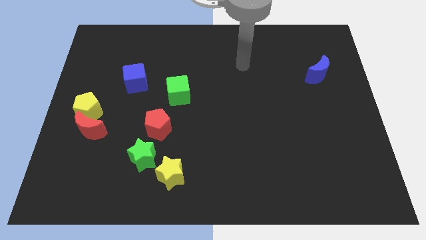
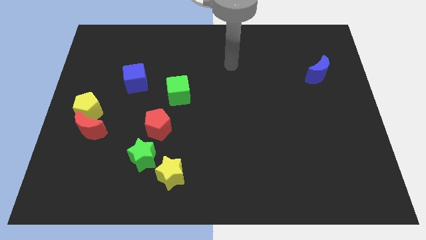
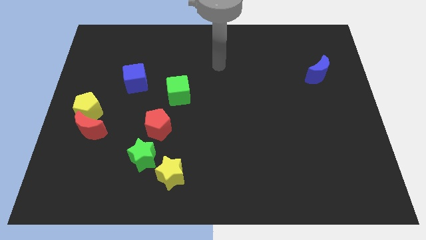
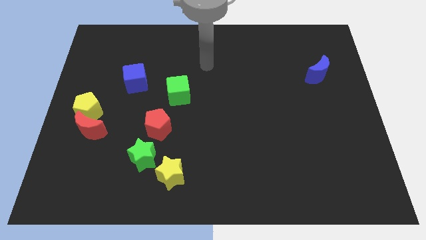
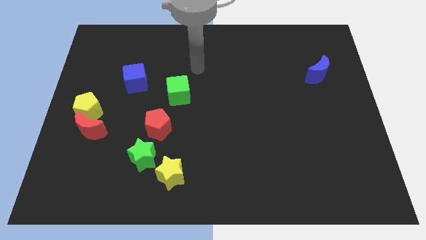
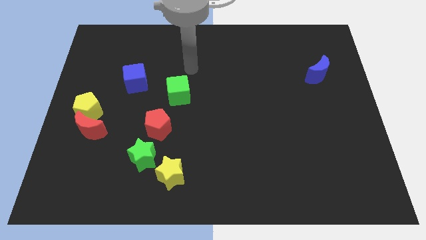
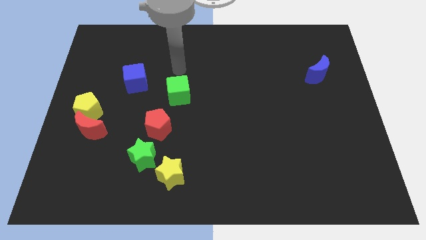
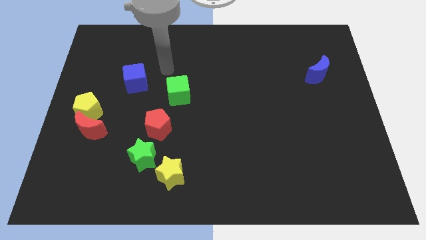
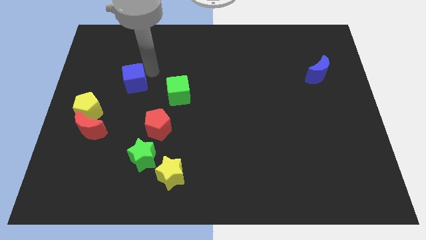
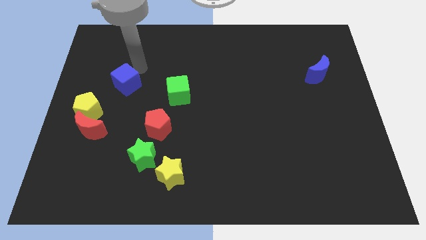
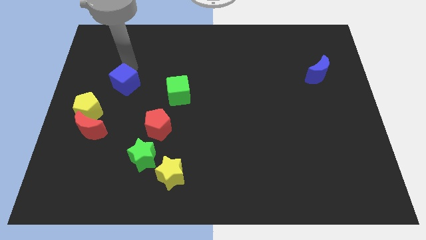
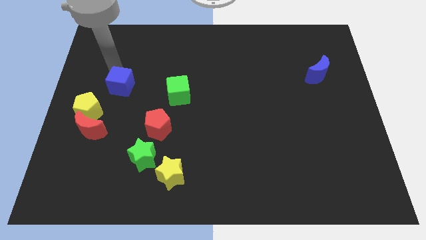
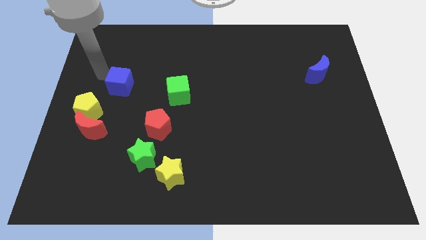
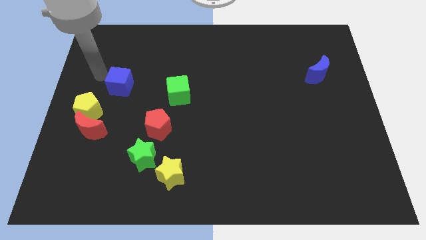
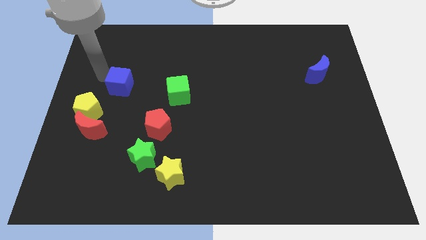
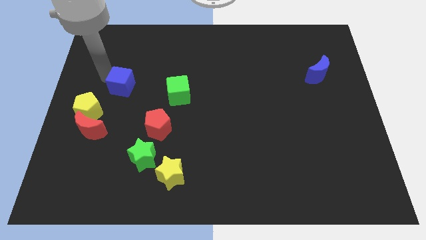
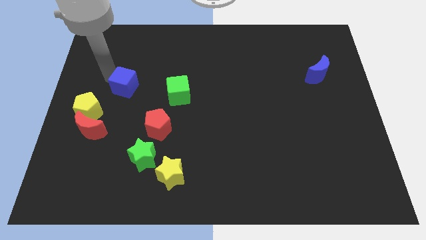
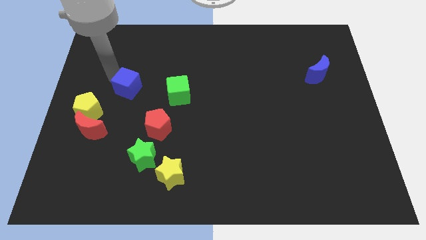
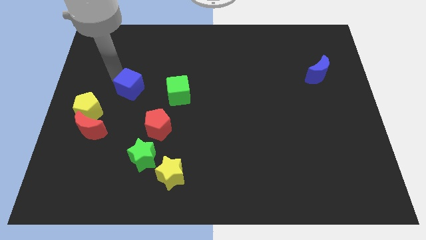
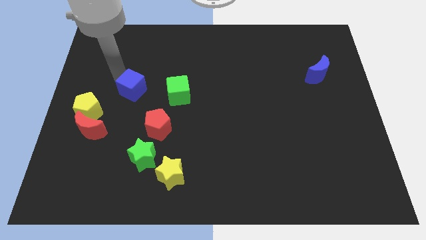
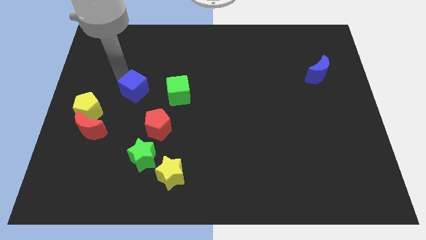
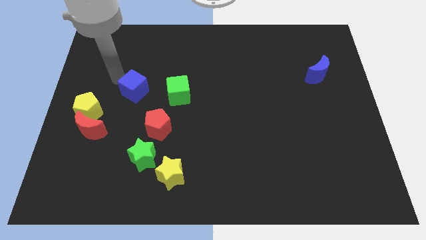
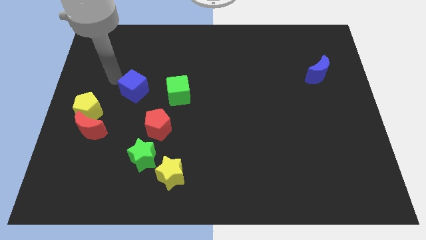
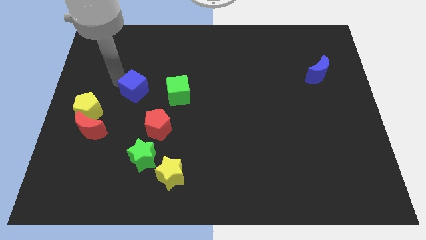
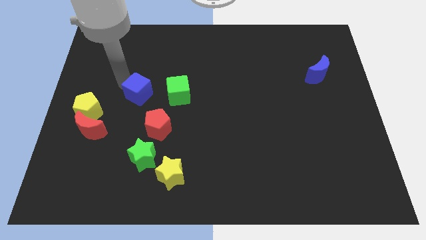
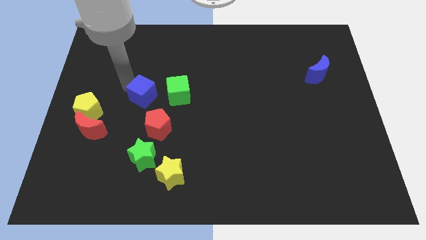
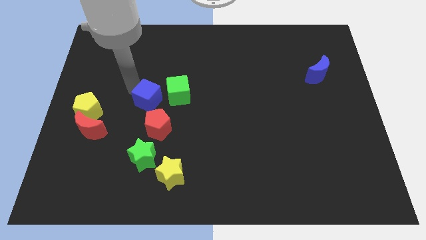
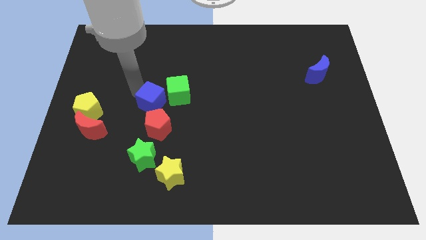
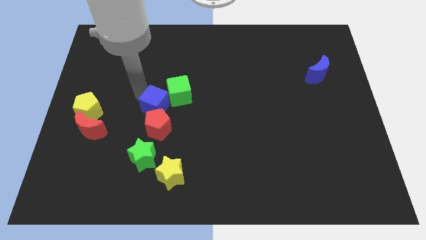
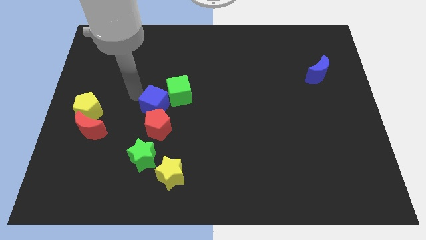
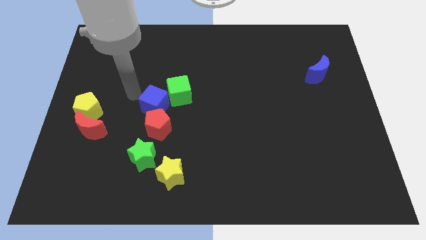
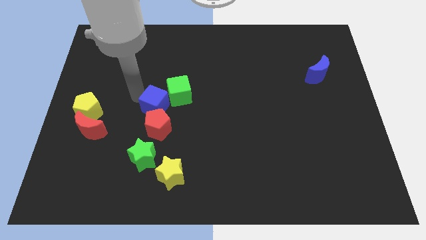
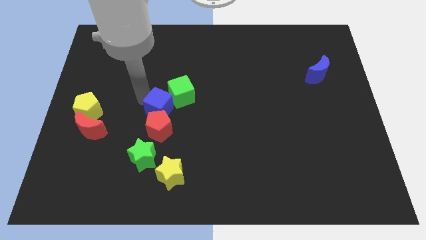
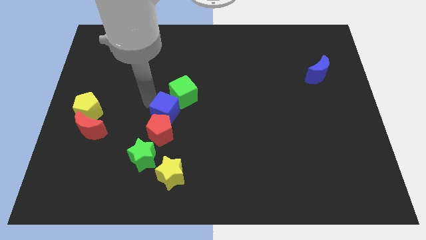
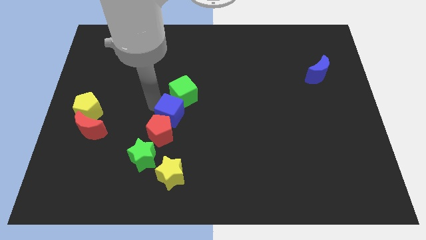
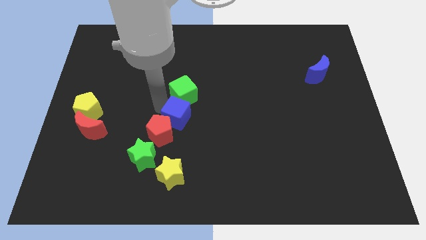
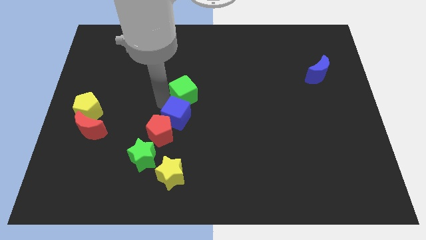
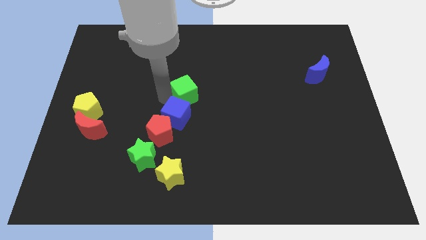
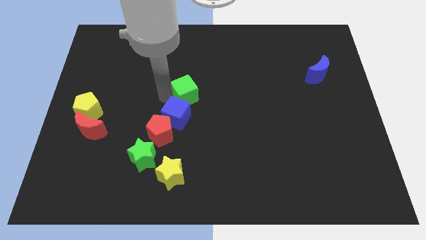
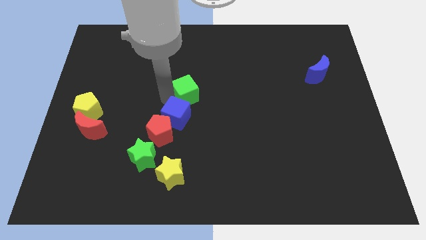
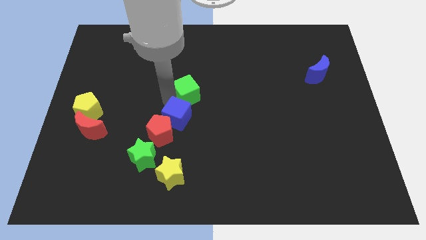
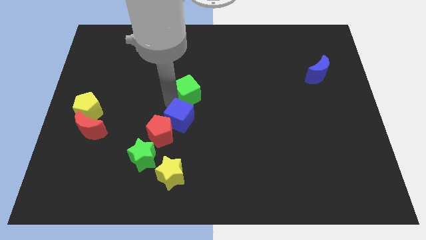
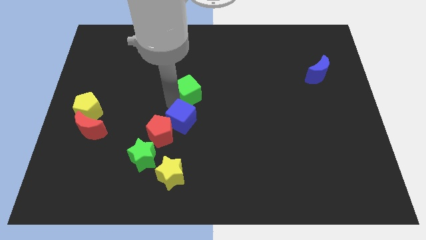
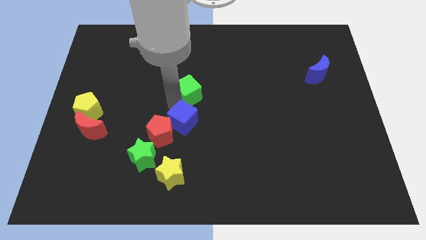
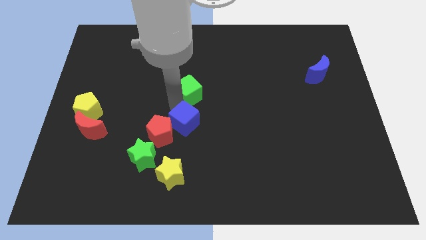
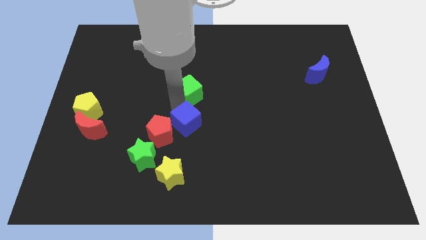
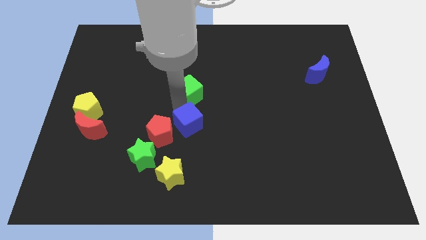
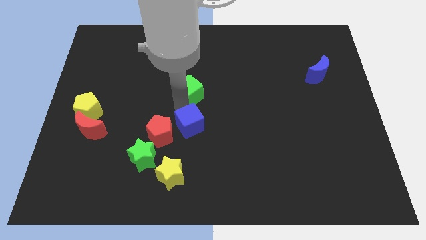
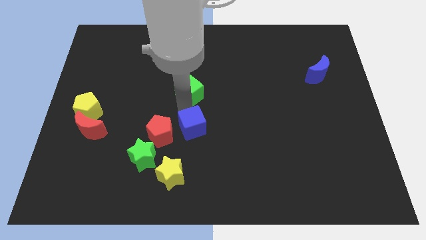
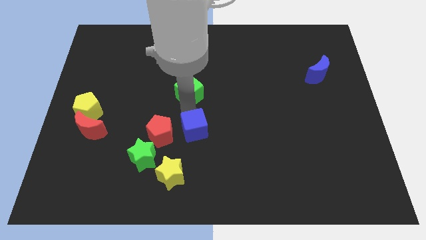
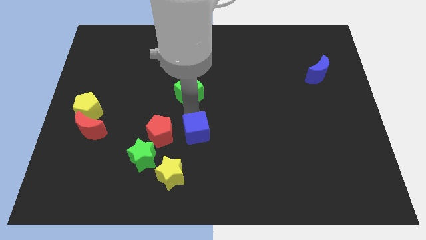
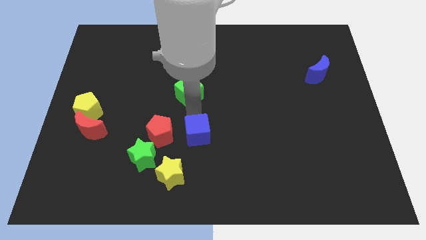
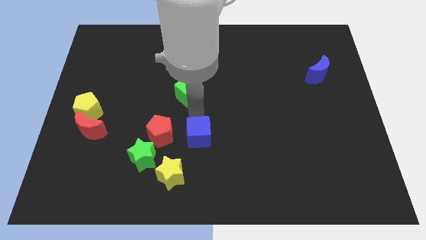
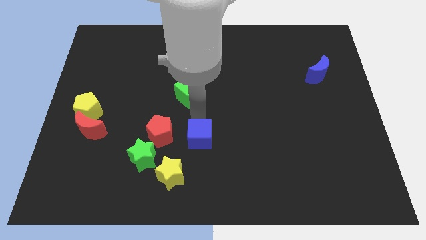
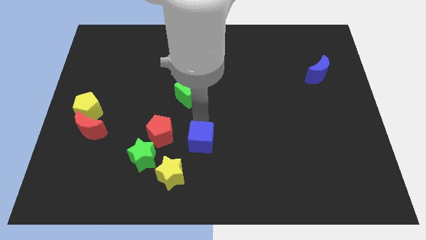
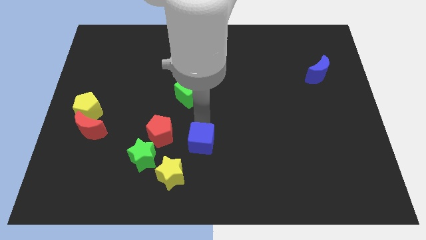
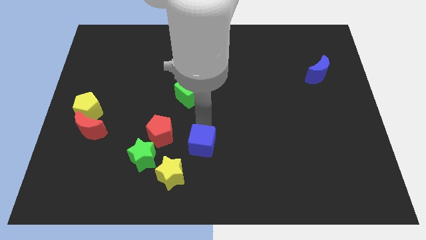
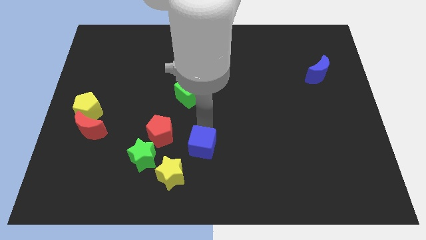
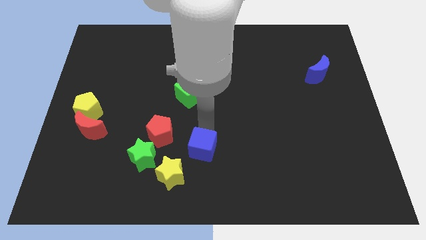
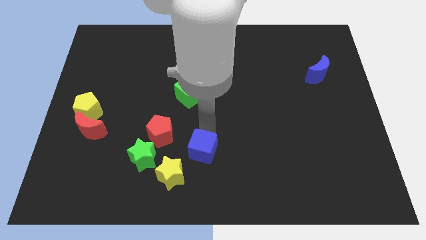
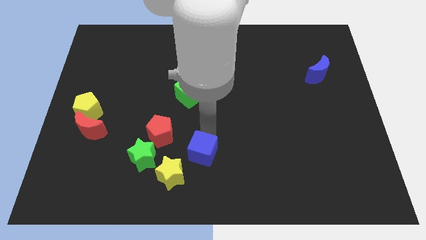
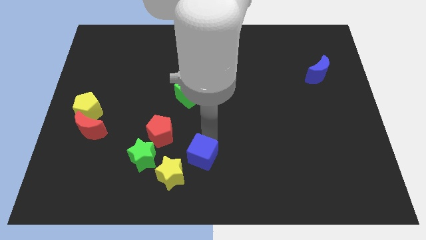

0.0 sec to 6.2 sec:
push the blue cube to the bottom side

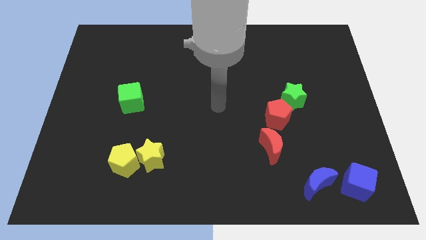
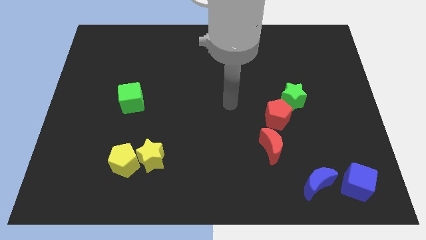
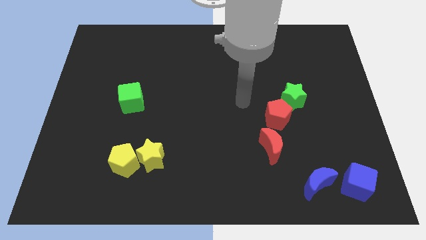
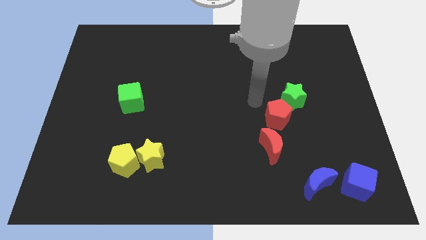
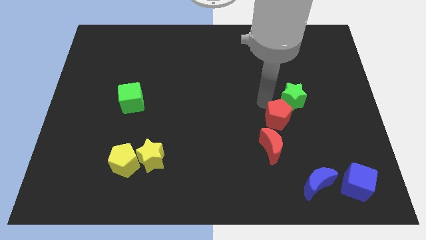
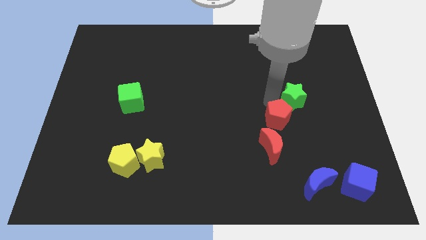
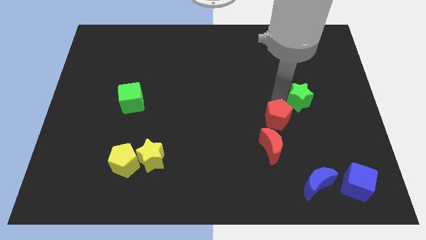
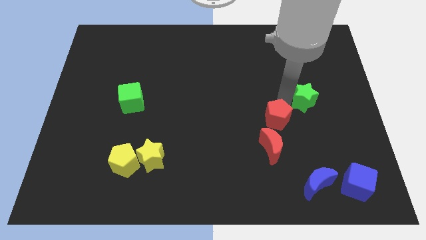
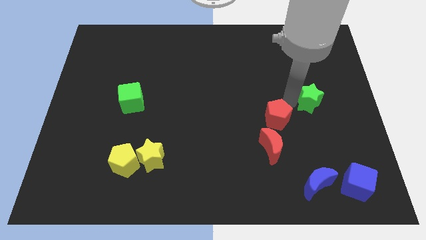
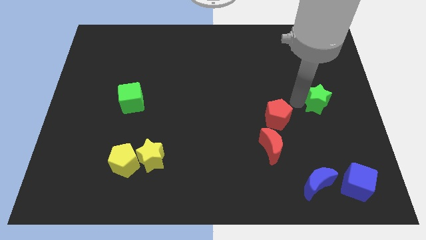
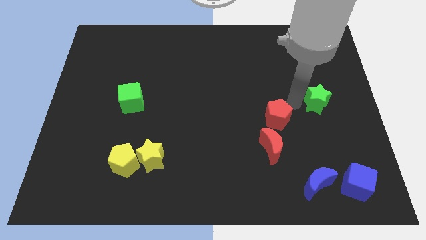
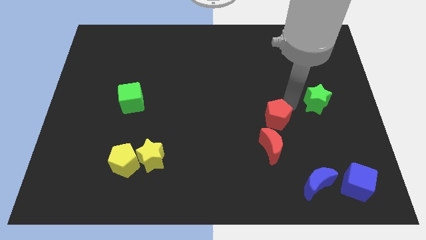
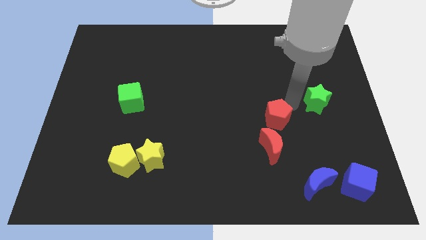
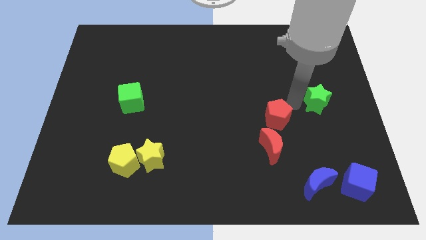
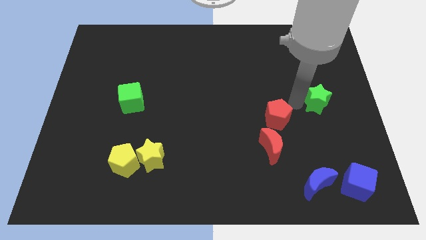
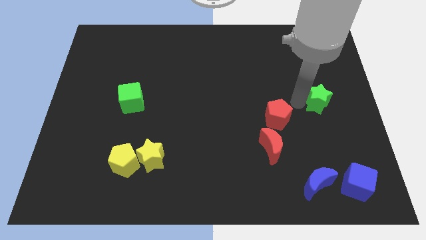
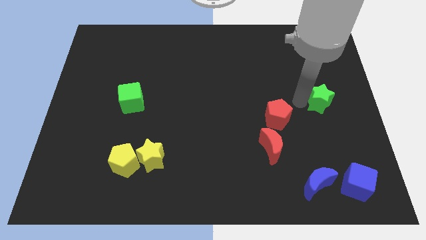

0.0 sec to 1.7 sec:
push the green star to the center right
